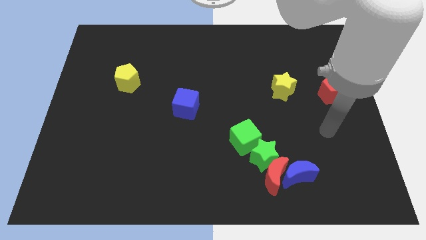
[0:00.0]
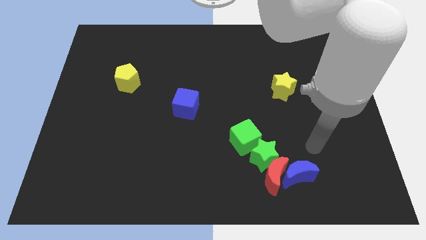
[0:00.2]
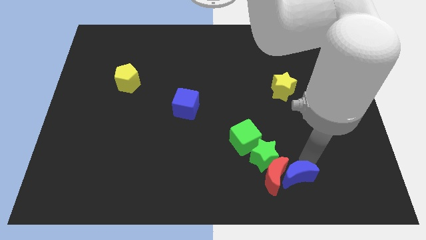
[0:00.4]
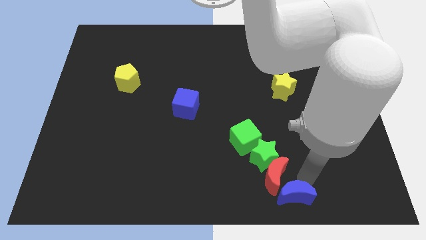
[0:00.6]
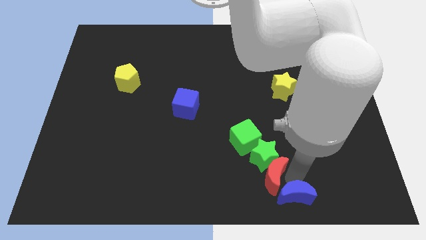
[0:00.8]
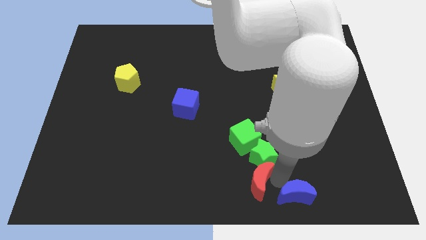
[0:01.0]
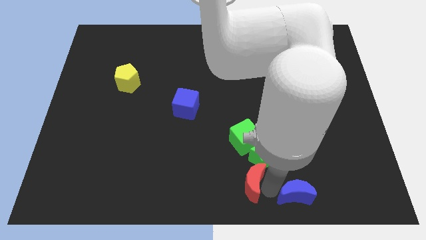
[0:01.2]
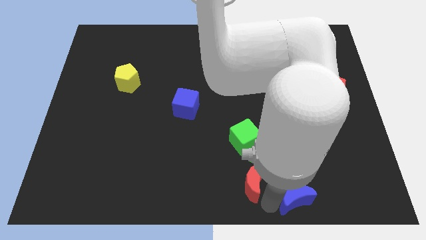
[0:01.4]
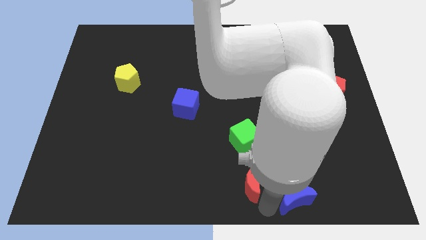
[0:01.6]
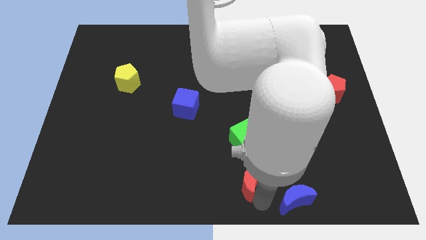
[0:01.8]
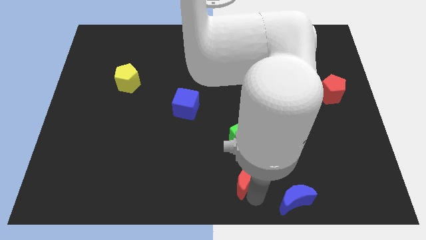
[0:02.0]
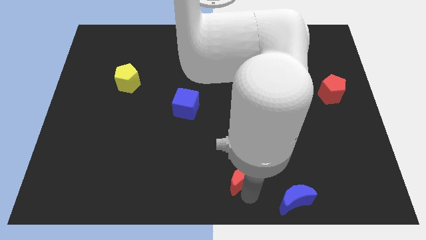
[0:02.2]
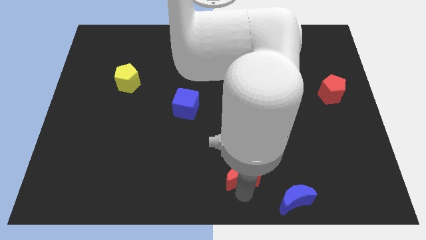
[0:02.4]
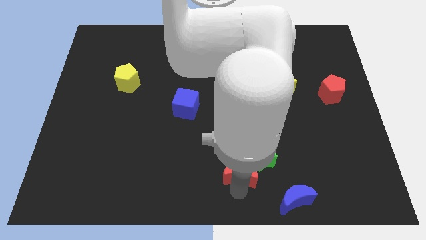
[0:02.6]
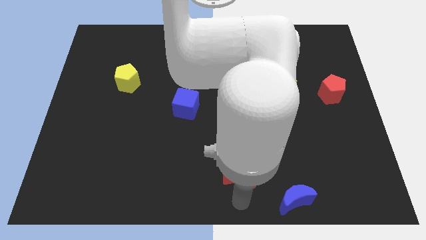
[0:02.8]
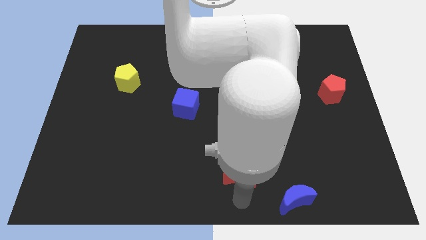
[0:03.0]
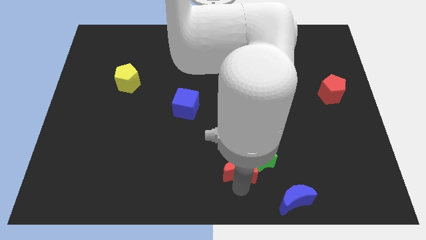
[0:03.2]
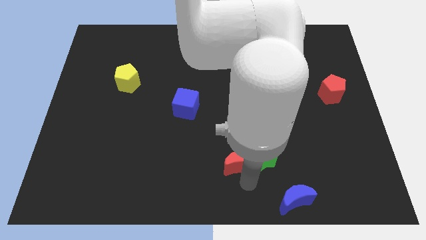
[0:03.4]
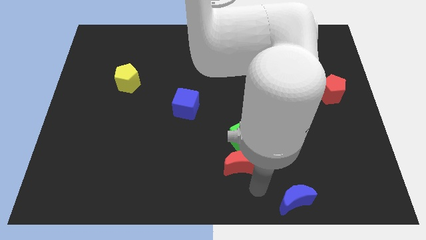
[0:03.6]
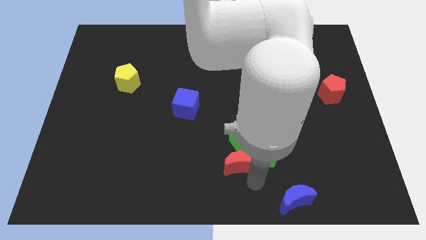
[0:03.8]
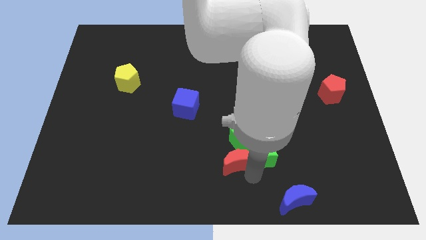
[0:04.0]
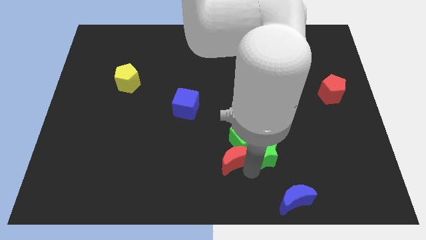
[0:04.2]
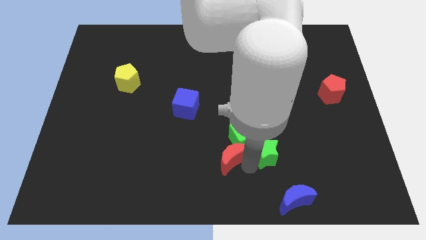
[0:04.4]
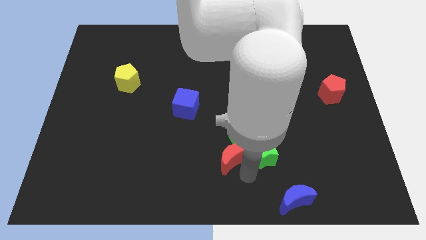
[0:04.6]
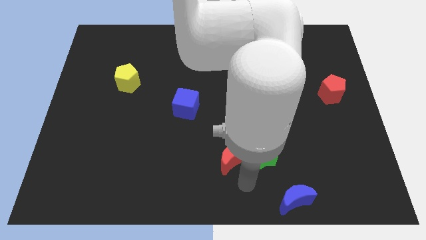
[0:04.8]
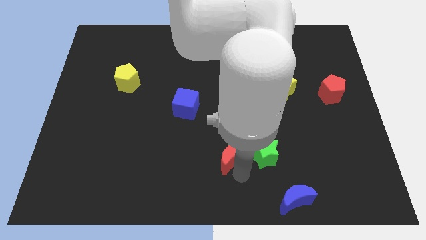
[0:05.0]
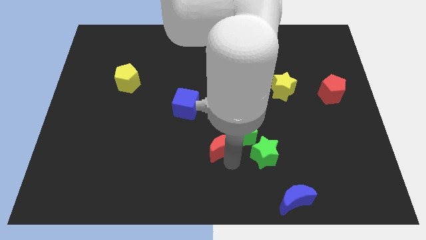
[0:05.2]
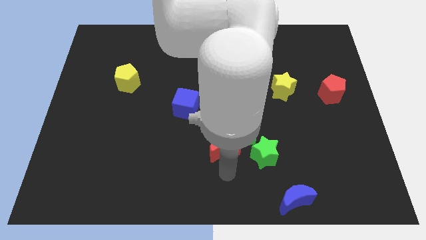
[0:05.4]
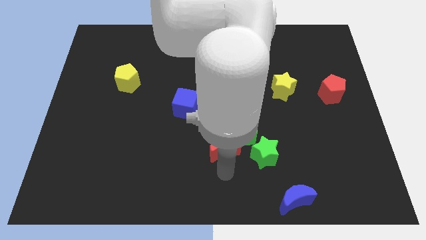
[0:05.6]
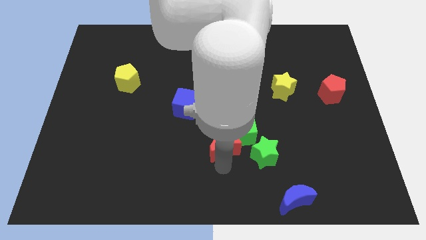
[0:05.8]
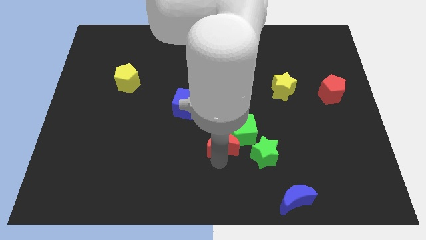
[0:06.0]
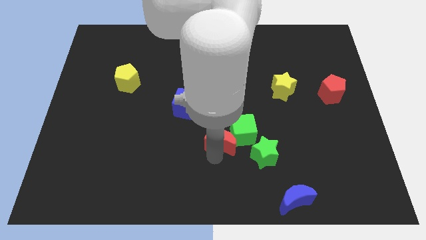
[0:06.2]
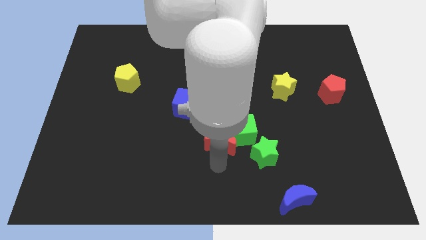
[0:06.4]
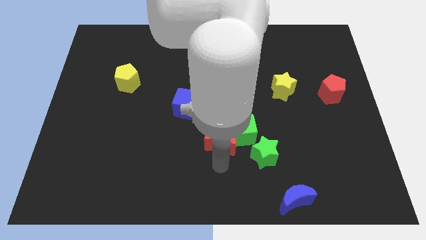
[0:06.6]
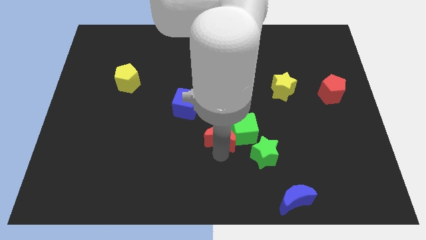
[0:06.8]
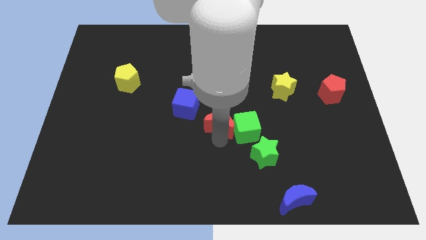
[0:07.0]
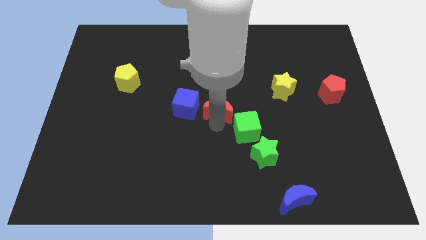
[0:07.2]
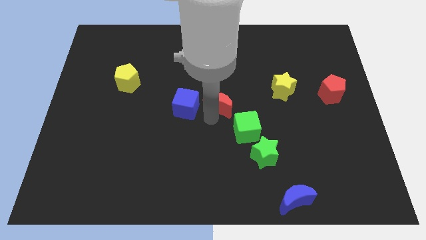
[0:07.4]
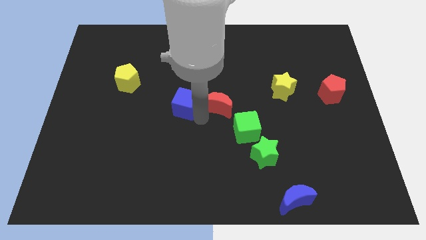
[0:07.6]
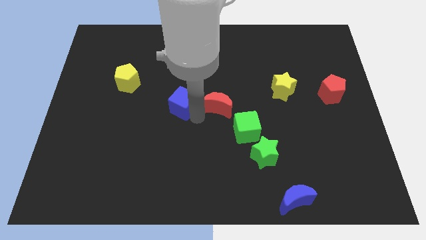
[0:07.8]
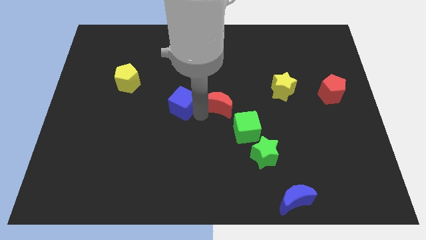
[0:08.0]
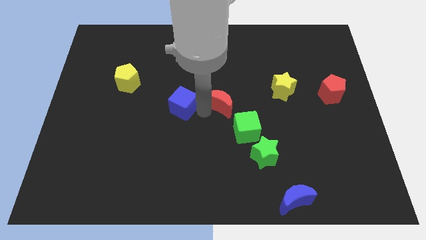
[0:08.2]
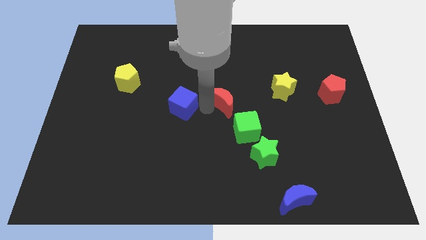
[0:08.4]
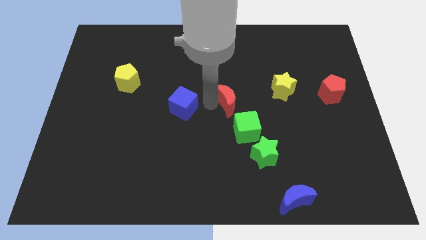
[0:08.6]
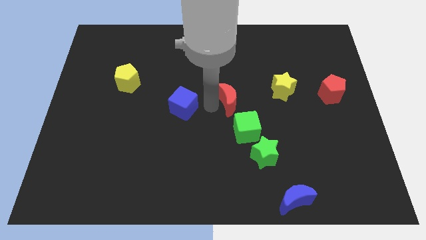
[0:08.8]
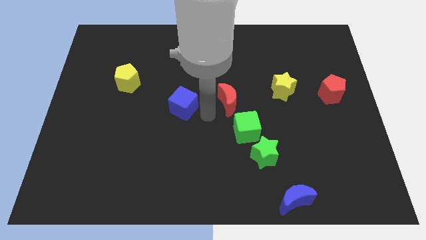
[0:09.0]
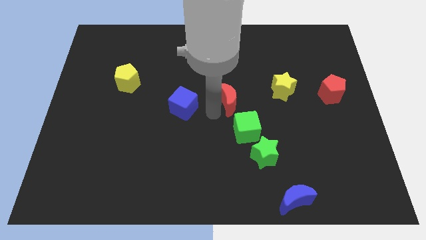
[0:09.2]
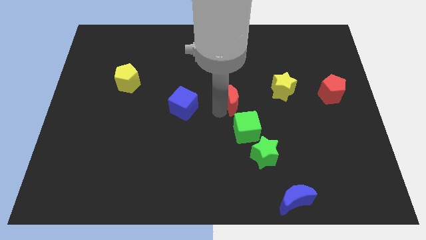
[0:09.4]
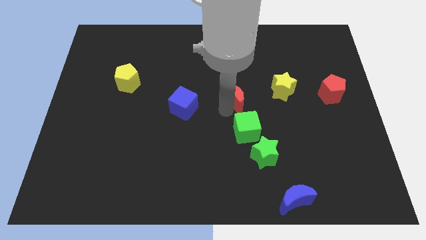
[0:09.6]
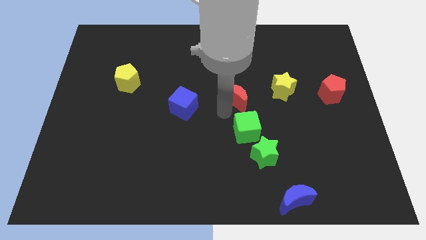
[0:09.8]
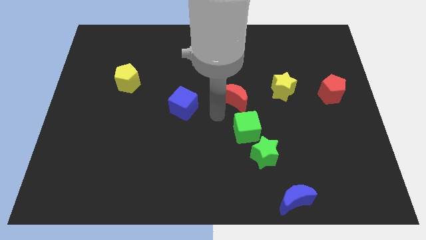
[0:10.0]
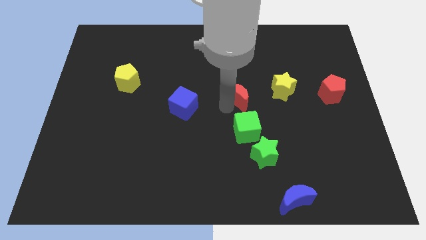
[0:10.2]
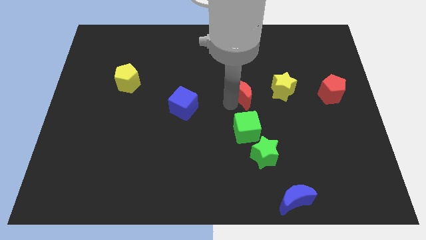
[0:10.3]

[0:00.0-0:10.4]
move the red moon up

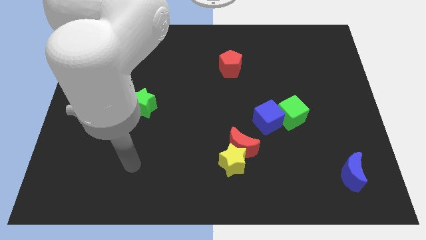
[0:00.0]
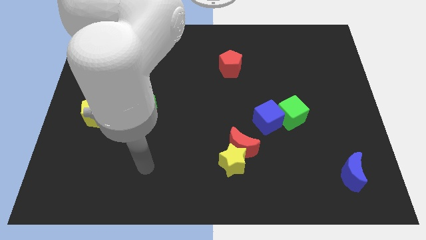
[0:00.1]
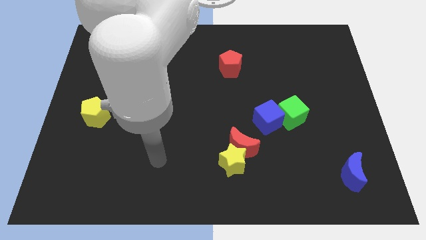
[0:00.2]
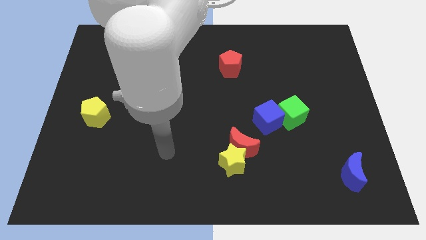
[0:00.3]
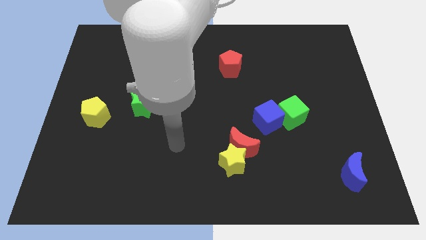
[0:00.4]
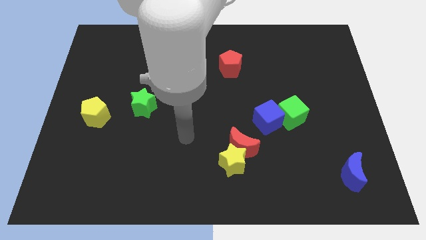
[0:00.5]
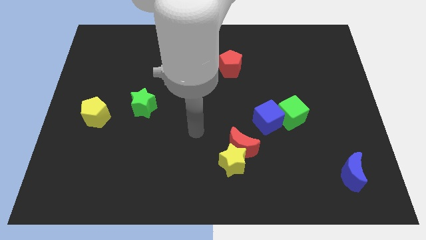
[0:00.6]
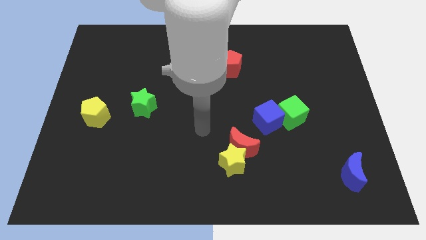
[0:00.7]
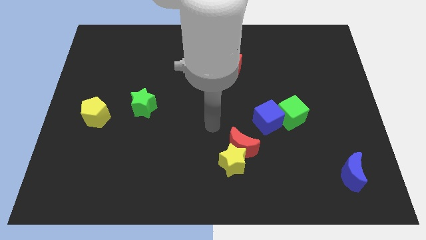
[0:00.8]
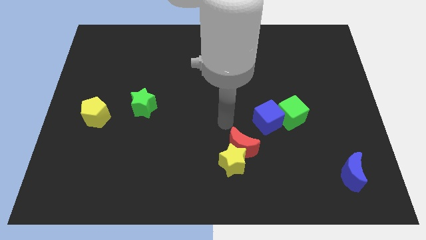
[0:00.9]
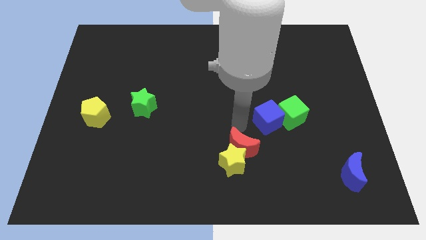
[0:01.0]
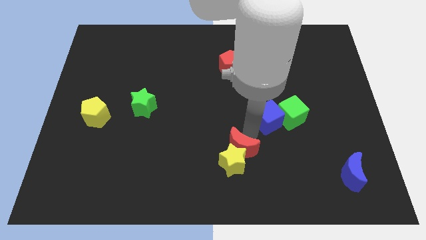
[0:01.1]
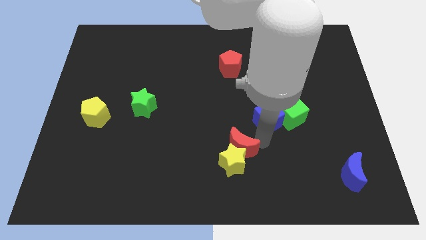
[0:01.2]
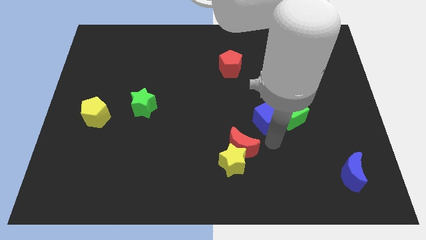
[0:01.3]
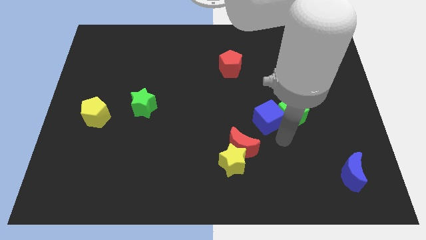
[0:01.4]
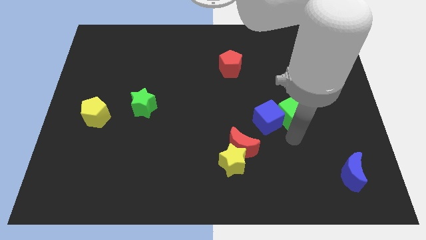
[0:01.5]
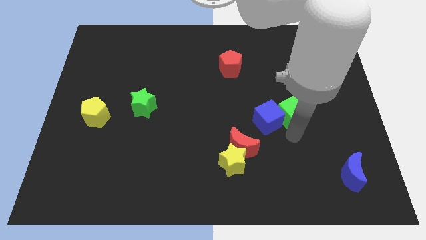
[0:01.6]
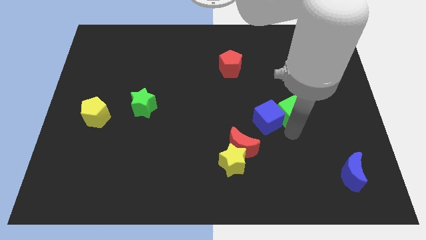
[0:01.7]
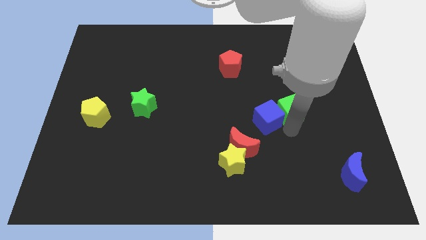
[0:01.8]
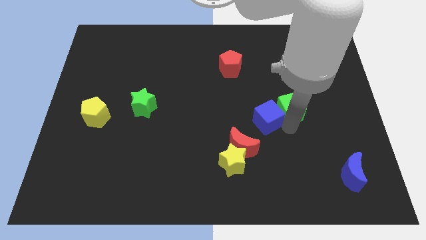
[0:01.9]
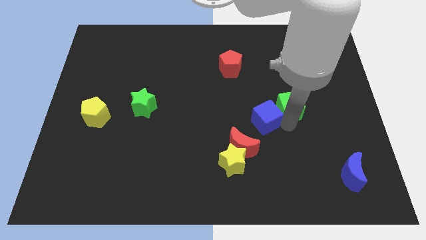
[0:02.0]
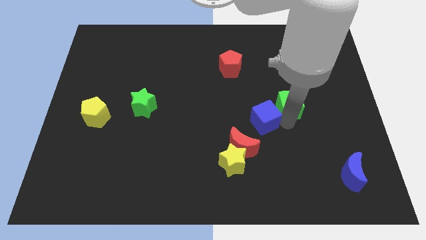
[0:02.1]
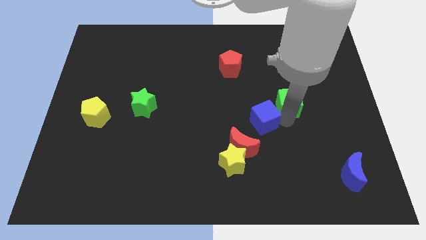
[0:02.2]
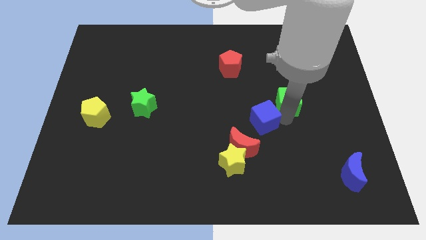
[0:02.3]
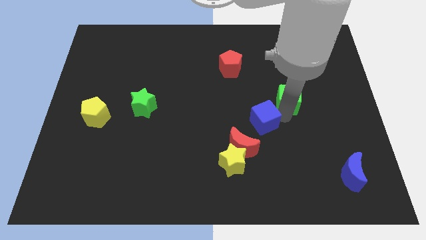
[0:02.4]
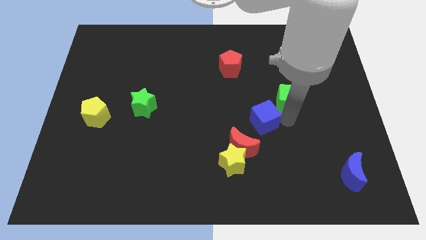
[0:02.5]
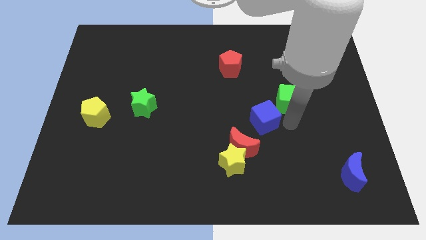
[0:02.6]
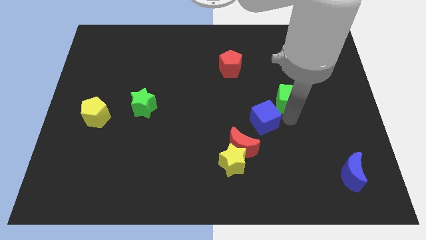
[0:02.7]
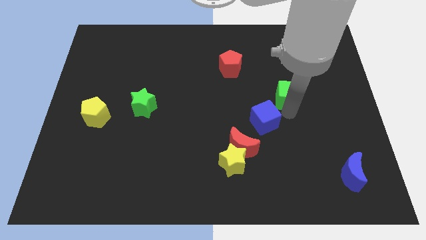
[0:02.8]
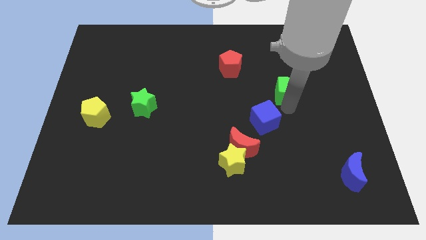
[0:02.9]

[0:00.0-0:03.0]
push the green cube a little upwards
